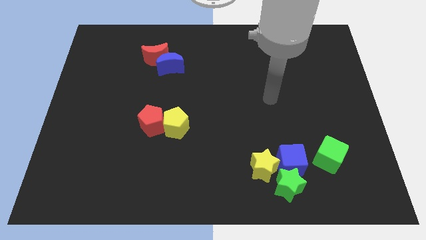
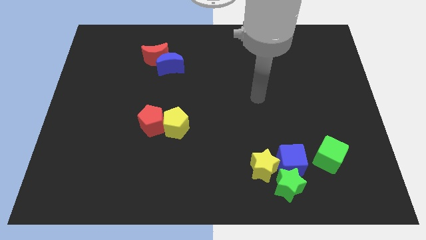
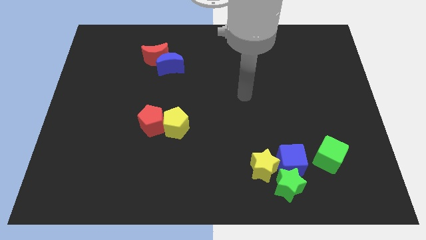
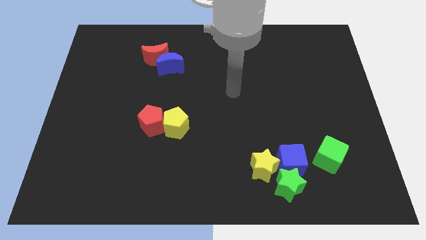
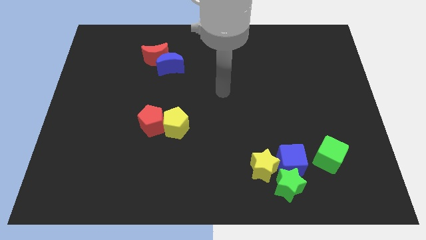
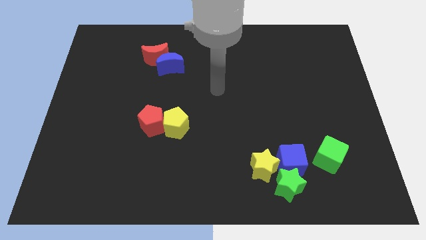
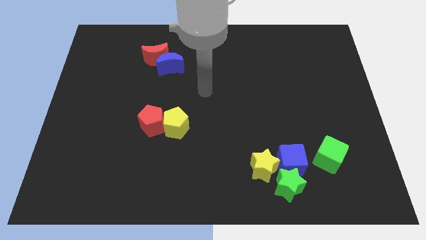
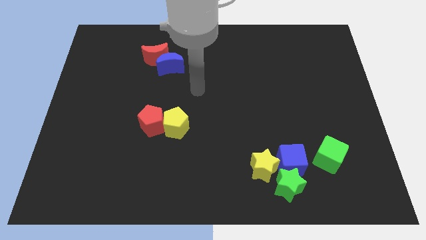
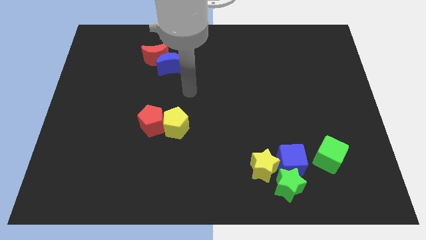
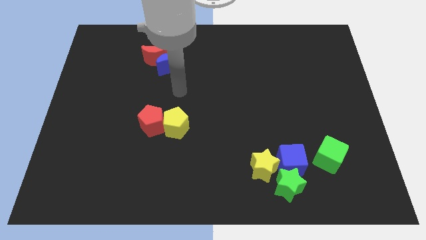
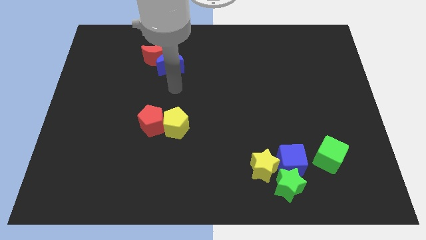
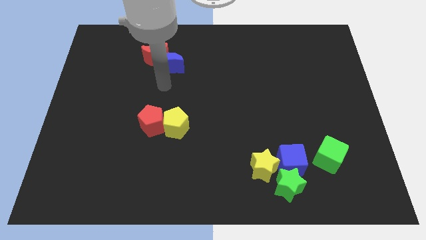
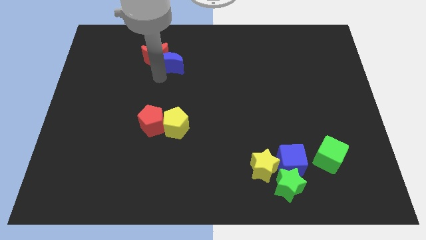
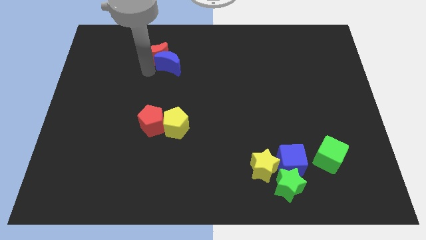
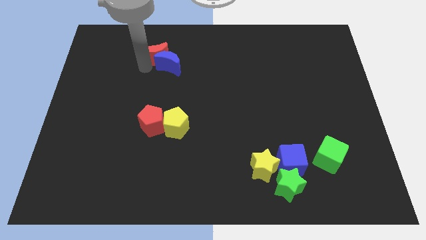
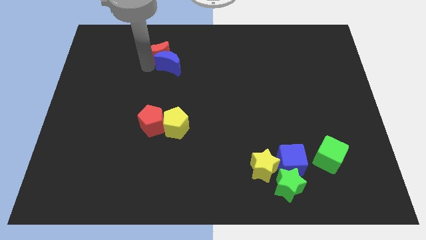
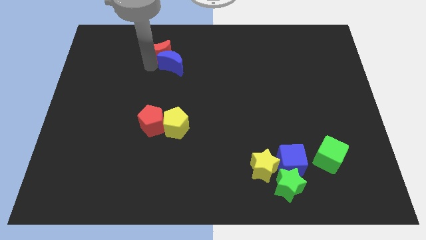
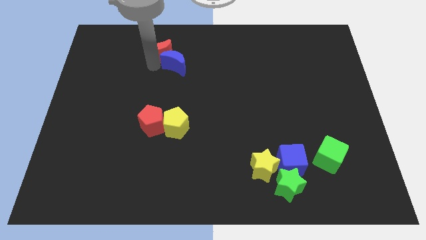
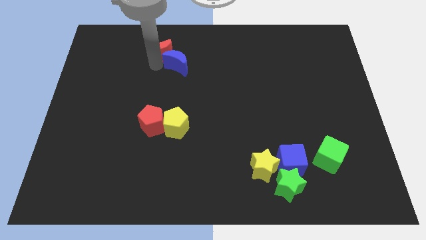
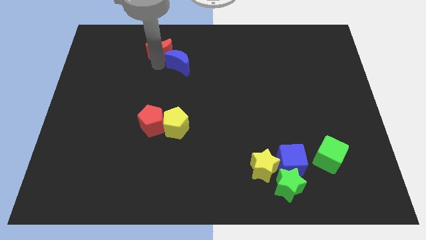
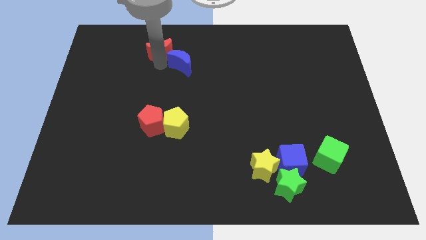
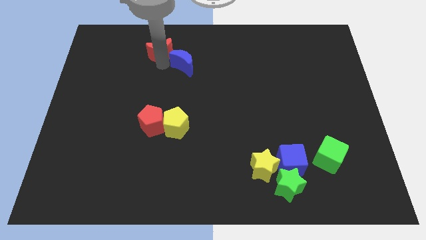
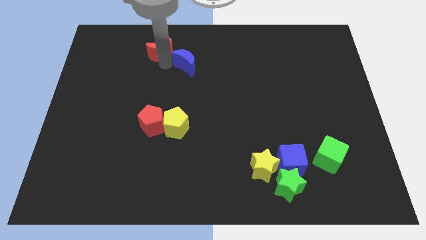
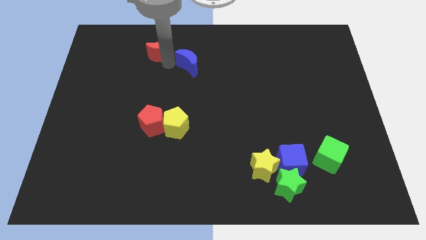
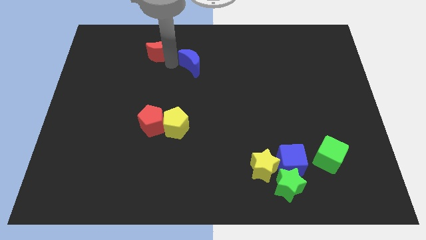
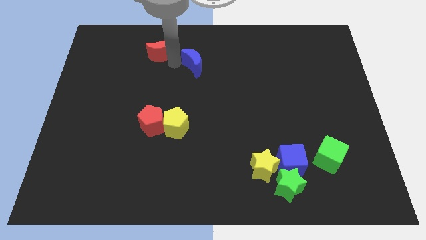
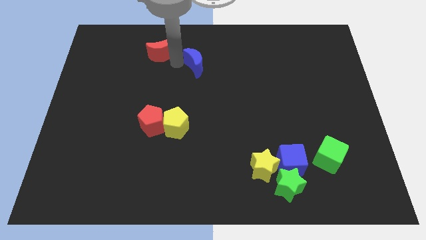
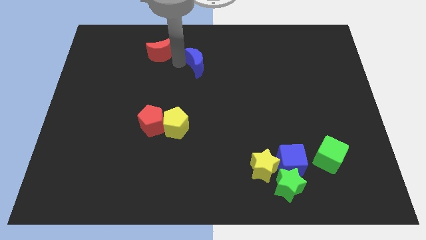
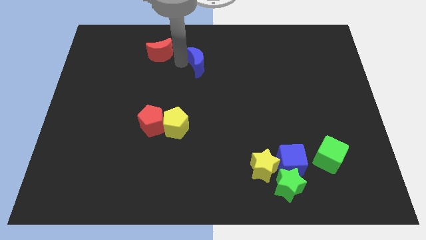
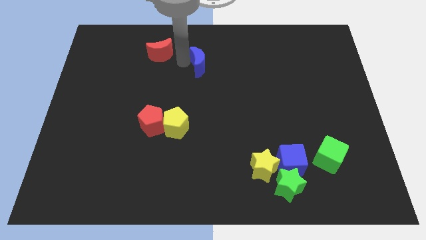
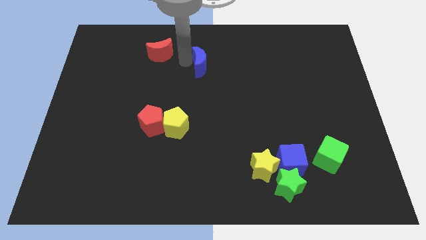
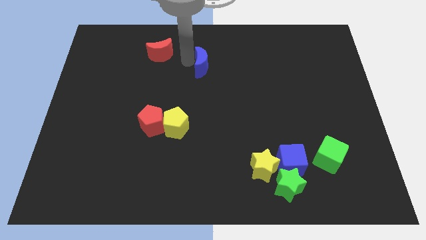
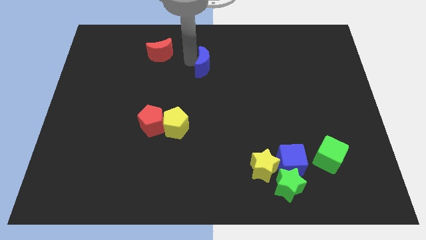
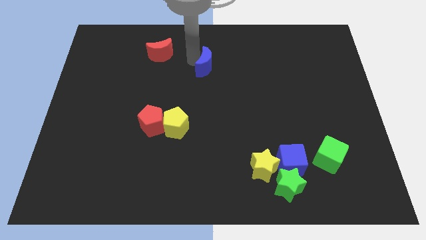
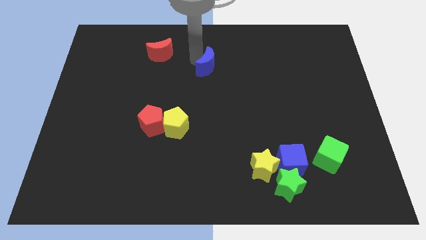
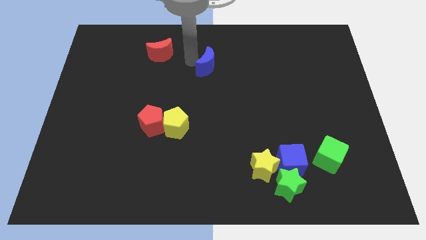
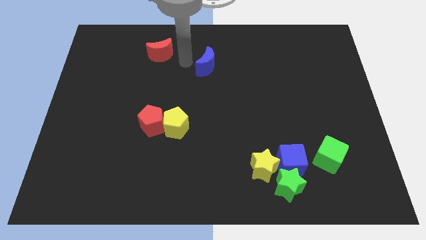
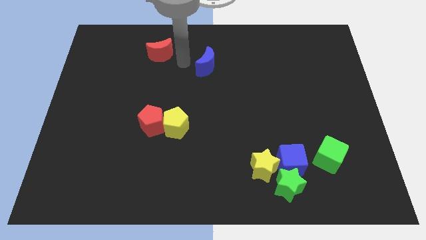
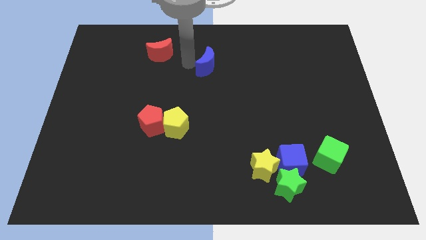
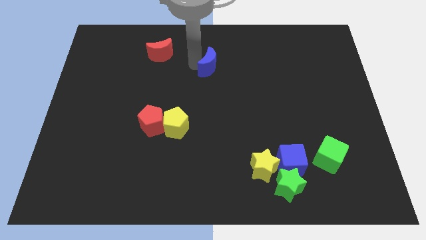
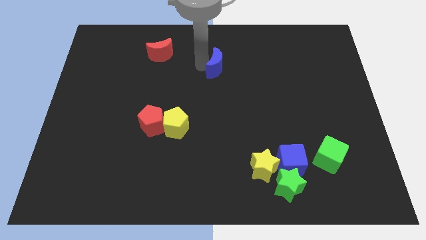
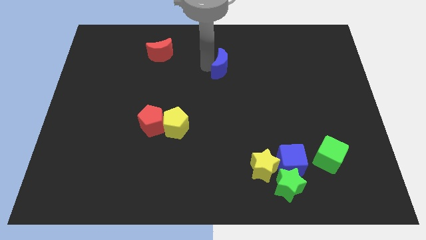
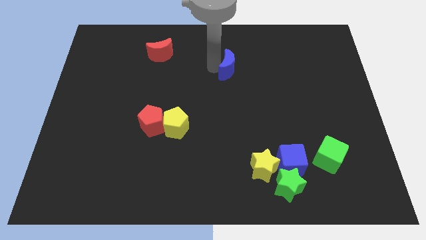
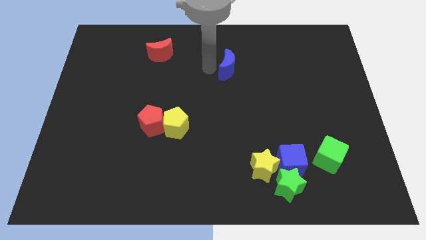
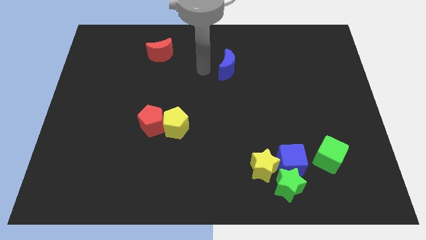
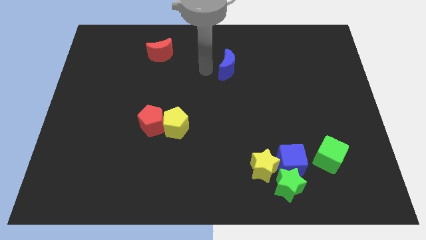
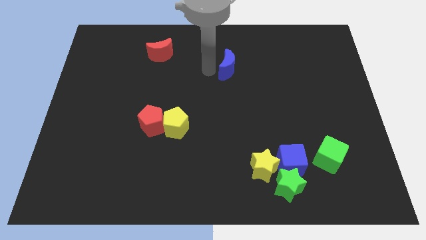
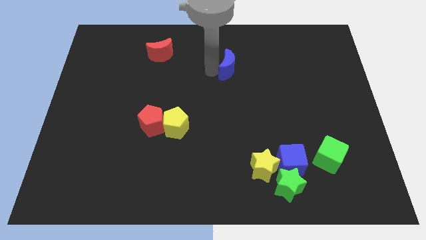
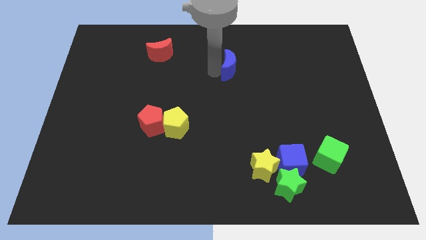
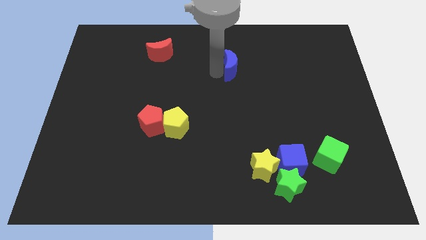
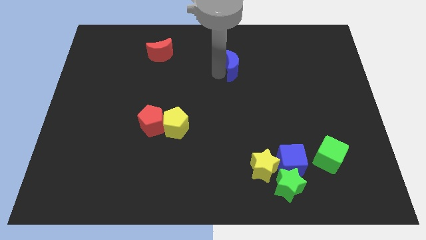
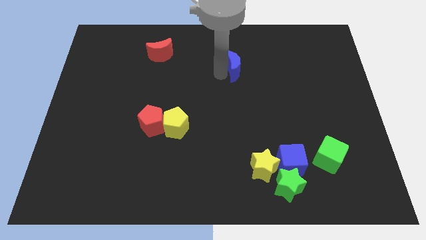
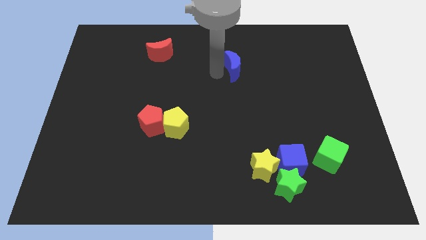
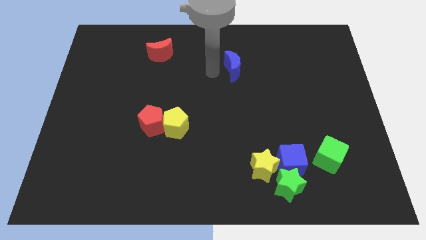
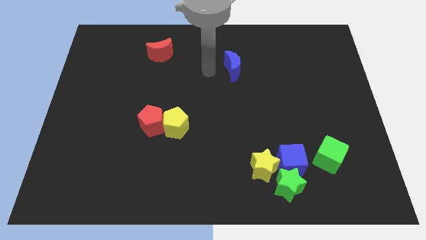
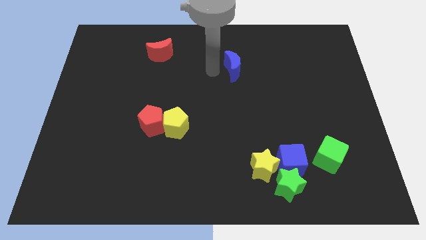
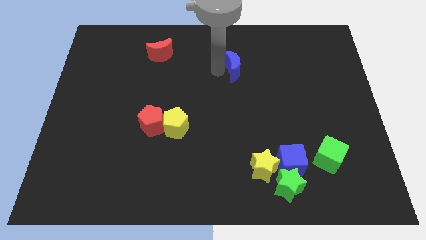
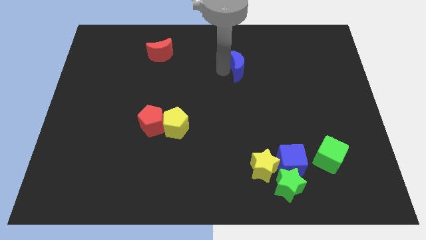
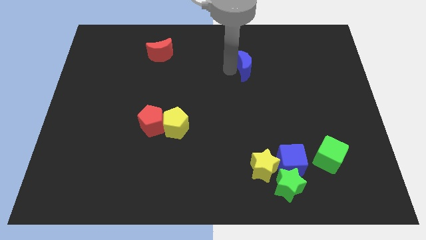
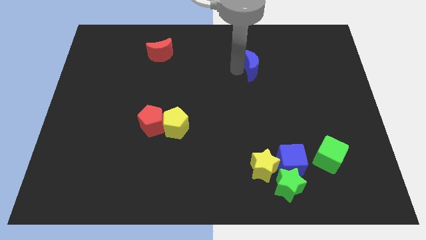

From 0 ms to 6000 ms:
slide the blue moon right

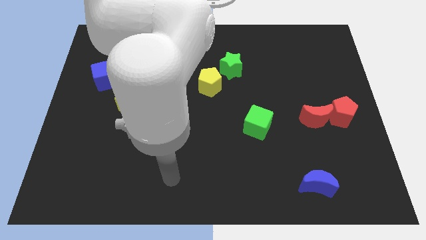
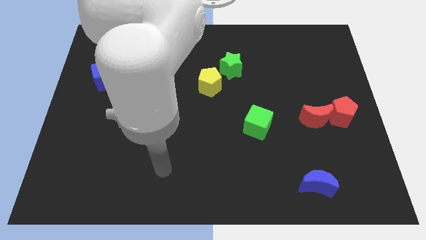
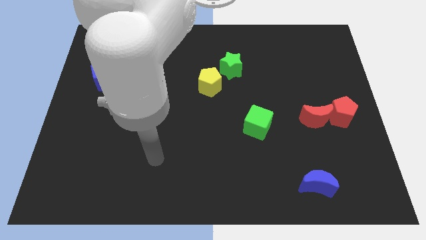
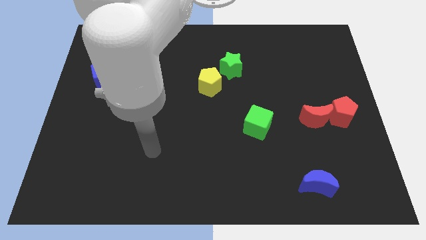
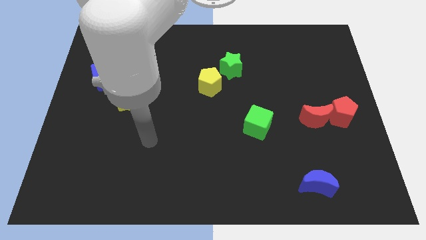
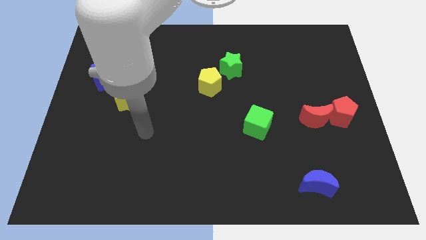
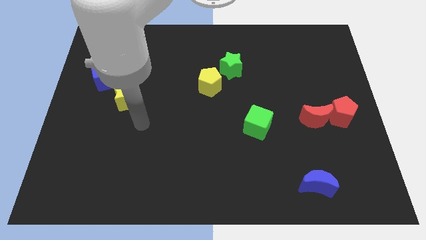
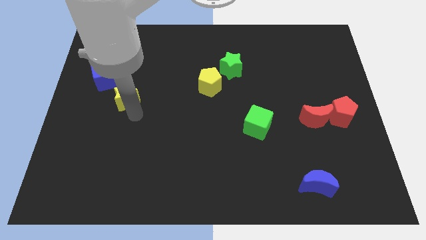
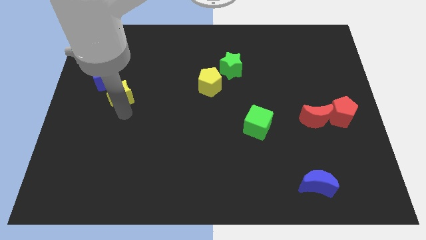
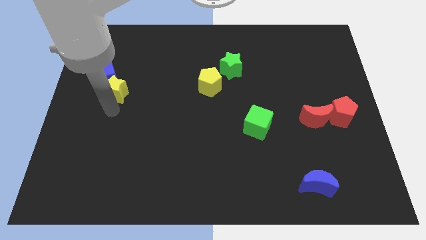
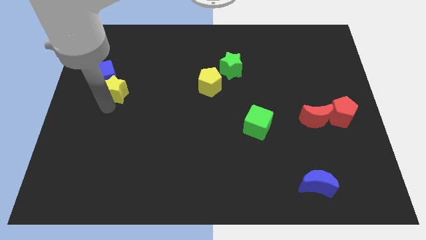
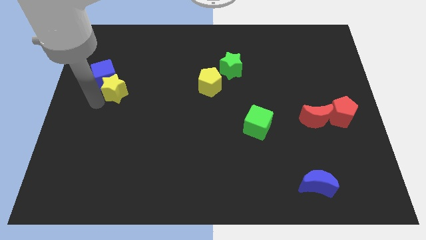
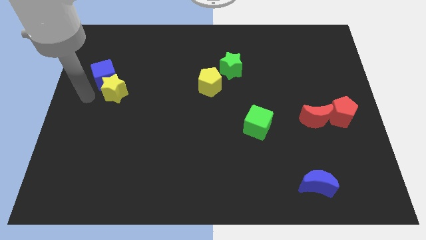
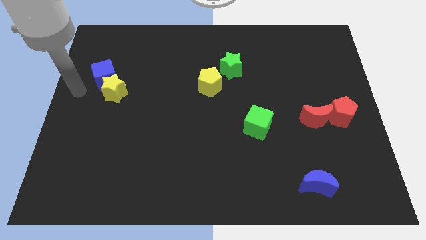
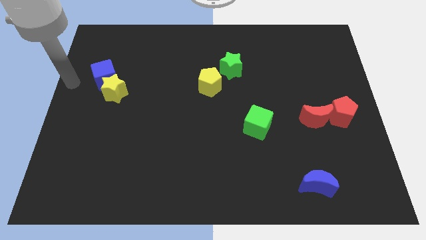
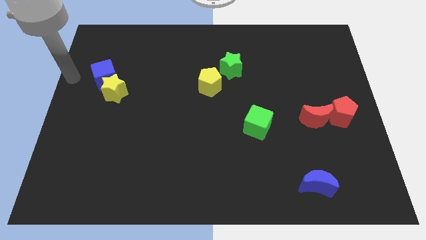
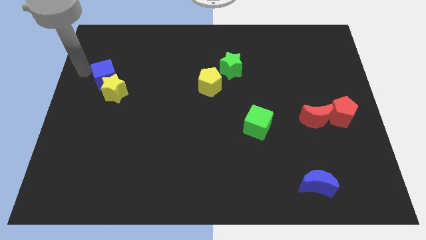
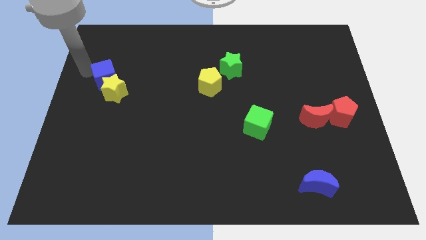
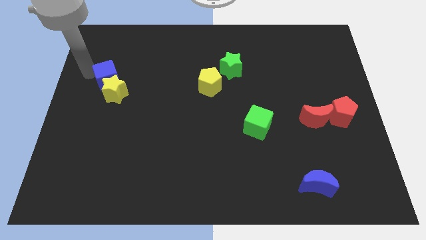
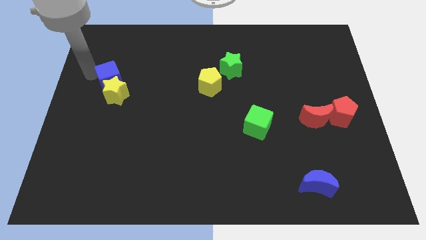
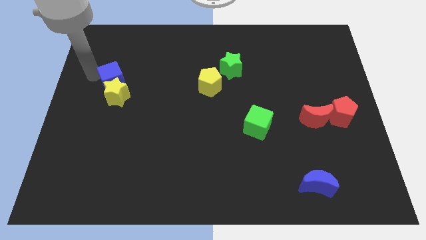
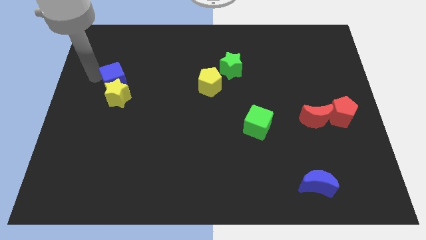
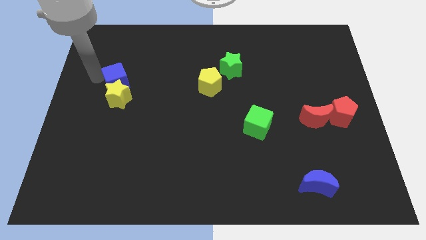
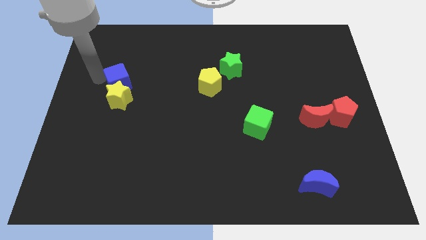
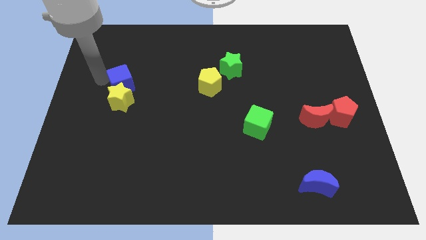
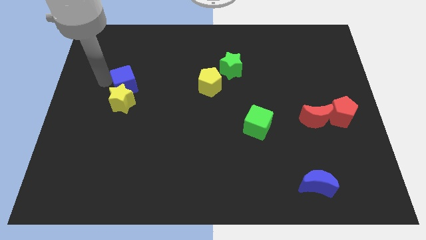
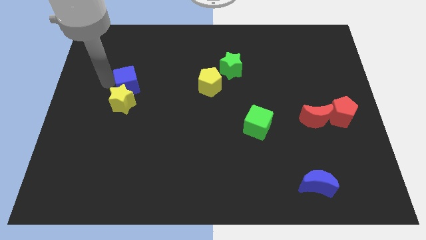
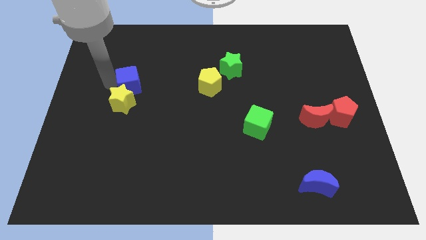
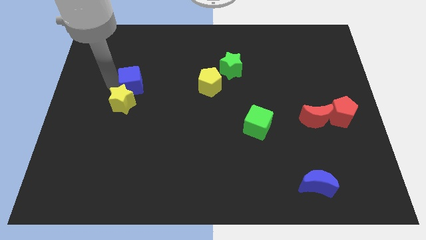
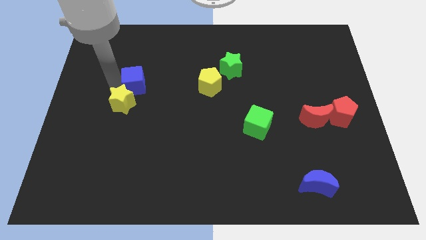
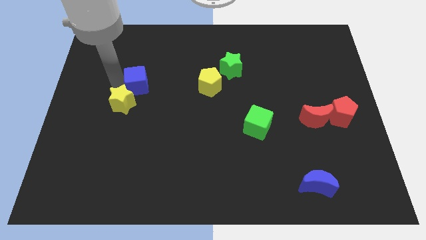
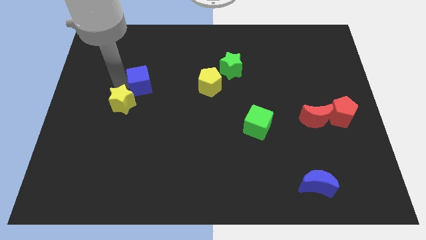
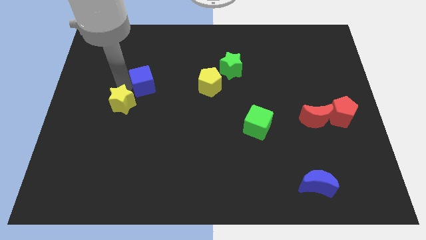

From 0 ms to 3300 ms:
slightly push the blue cube downwards and then right
